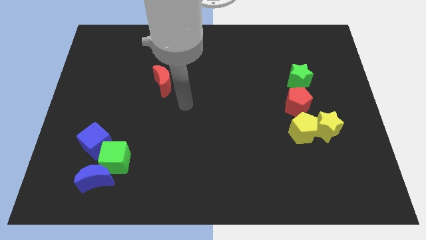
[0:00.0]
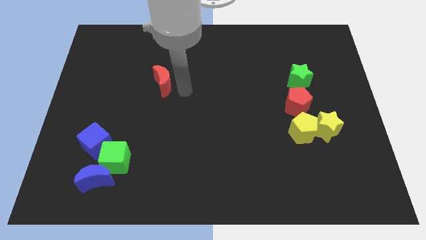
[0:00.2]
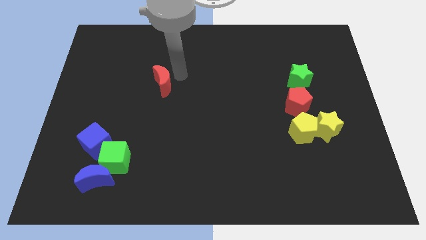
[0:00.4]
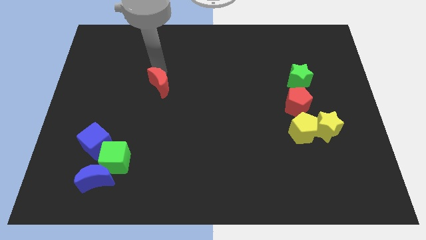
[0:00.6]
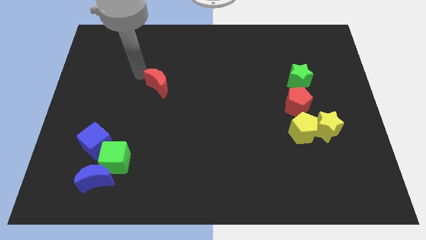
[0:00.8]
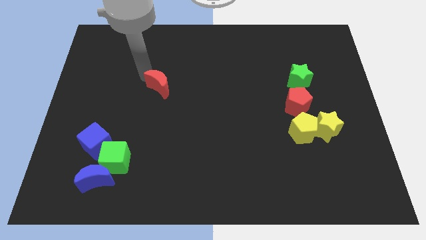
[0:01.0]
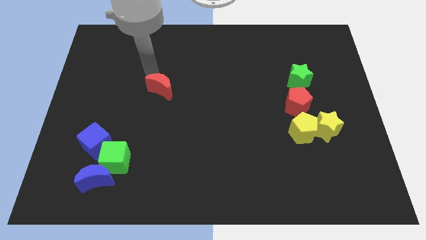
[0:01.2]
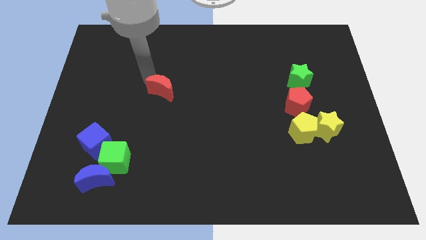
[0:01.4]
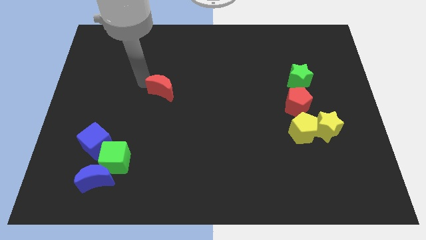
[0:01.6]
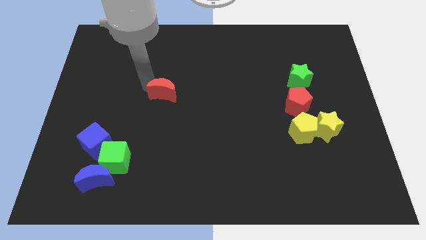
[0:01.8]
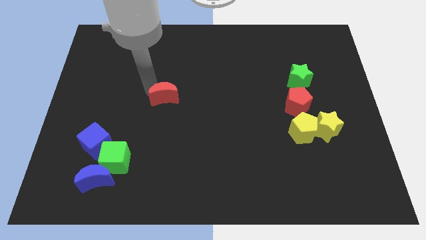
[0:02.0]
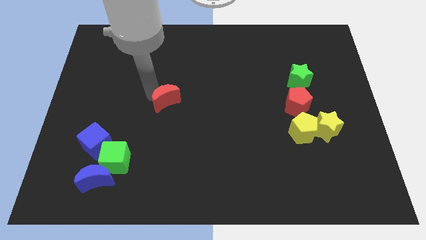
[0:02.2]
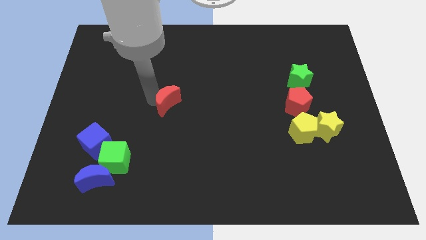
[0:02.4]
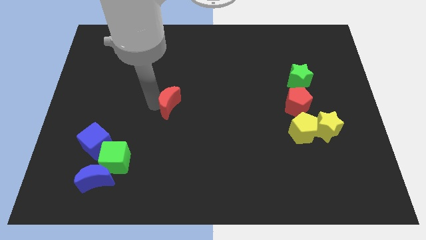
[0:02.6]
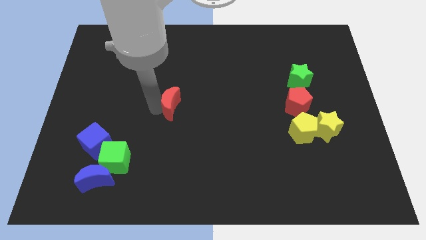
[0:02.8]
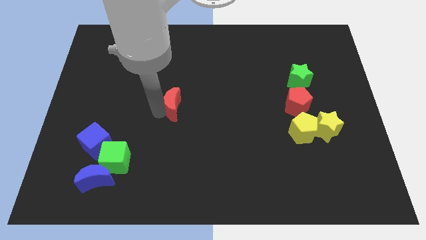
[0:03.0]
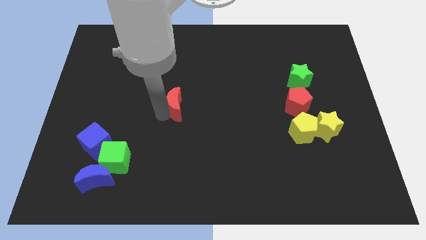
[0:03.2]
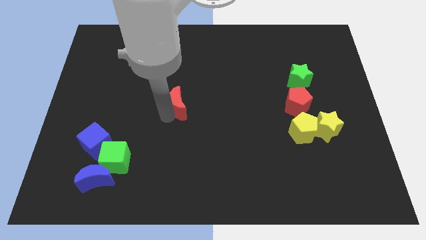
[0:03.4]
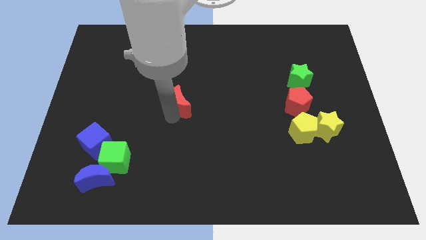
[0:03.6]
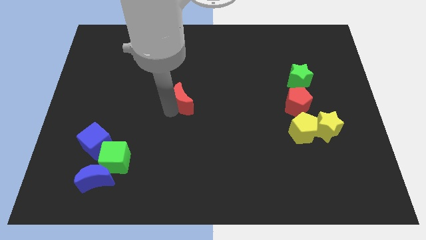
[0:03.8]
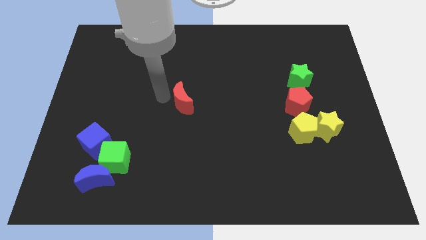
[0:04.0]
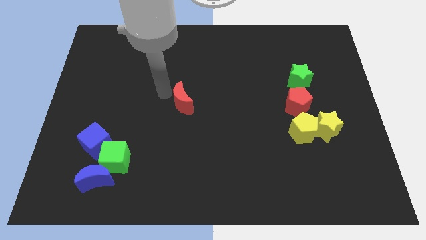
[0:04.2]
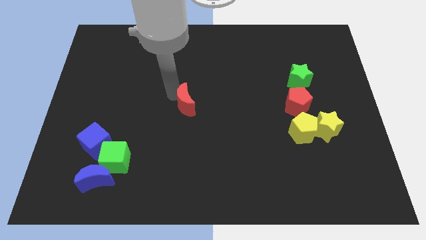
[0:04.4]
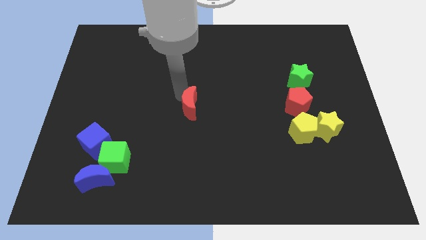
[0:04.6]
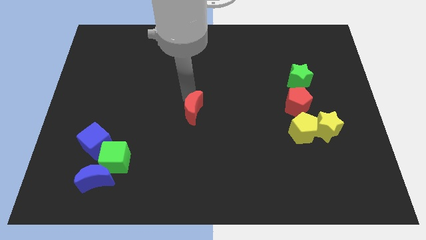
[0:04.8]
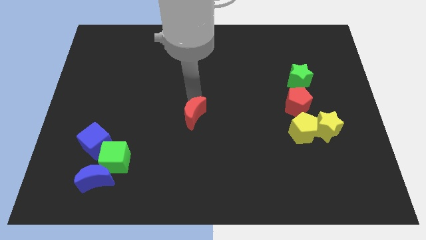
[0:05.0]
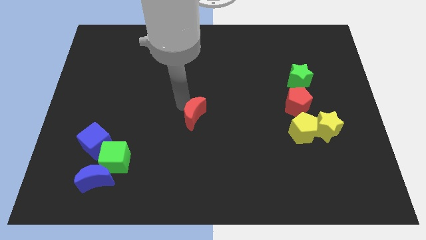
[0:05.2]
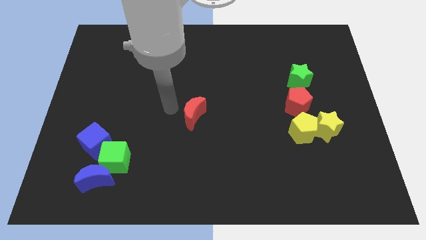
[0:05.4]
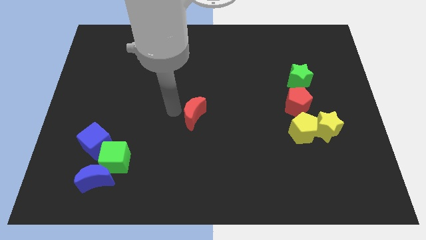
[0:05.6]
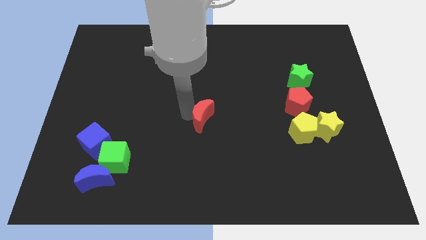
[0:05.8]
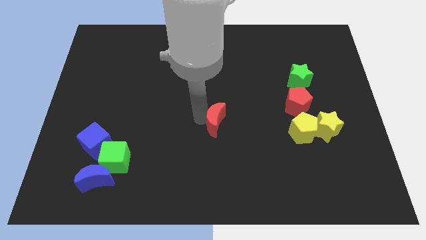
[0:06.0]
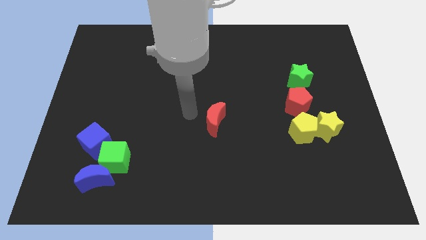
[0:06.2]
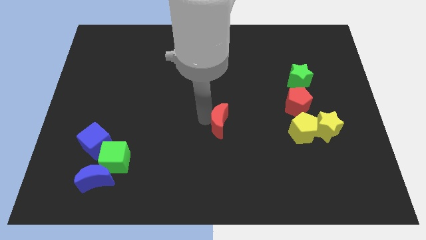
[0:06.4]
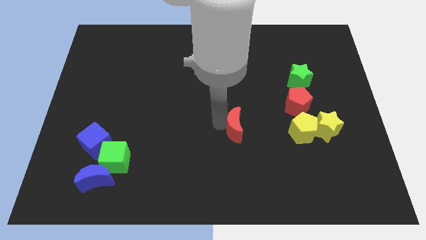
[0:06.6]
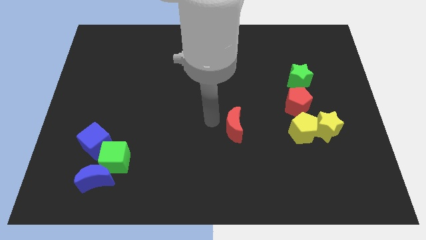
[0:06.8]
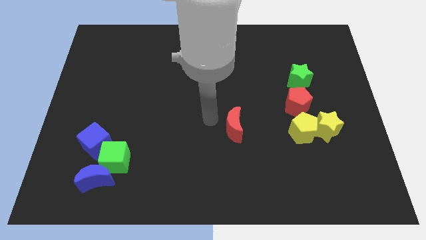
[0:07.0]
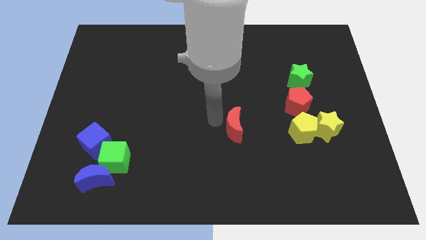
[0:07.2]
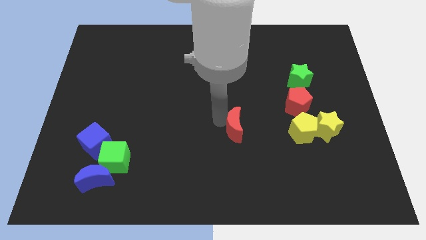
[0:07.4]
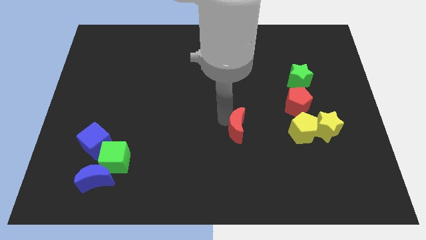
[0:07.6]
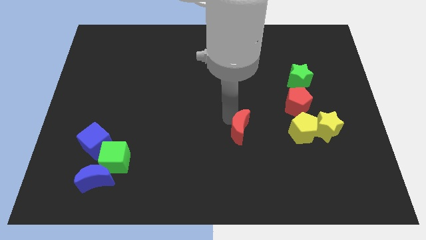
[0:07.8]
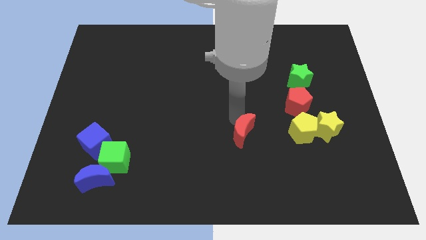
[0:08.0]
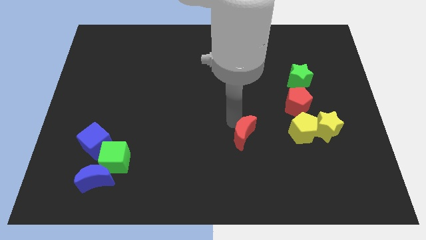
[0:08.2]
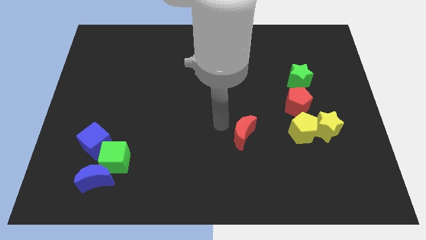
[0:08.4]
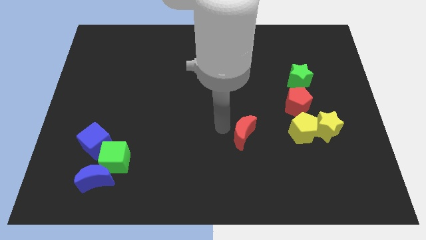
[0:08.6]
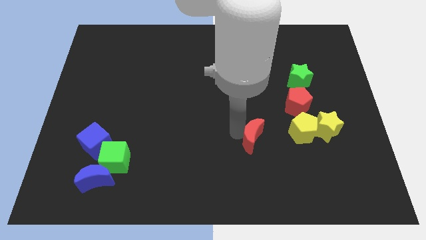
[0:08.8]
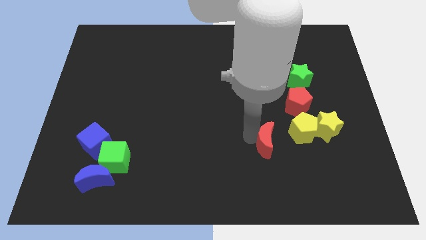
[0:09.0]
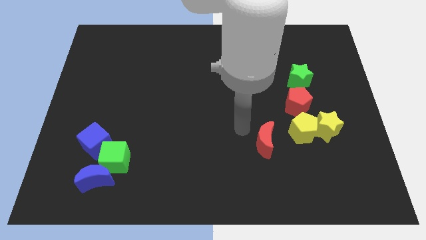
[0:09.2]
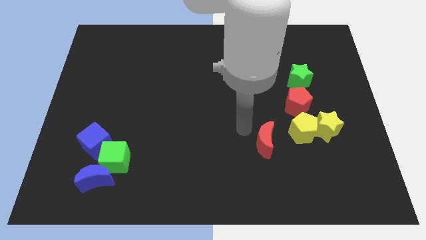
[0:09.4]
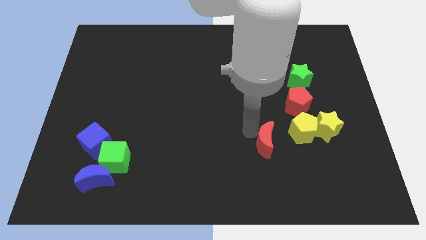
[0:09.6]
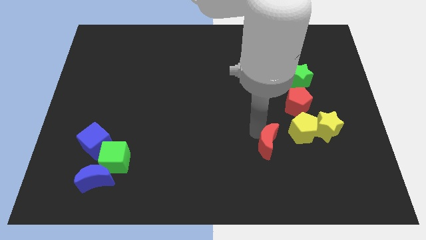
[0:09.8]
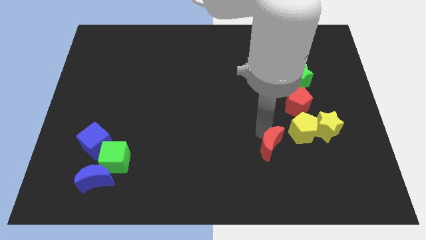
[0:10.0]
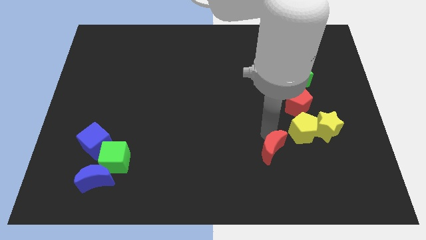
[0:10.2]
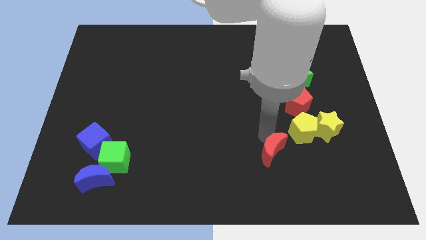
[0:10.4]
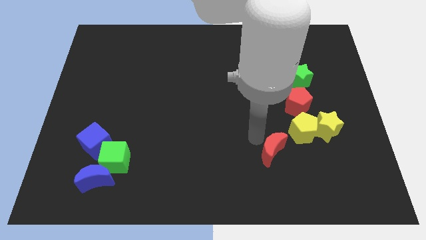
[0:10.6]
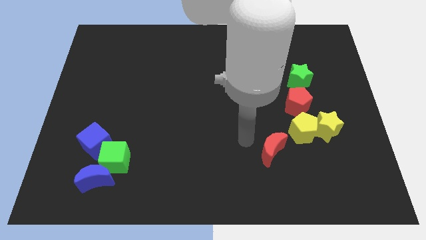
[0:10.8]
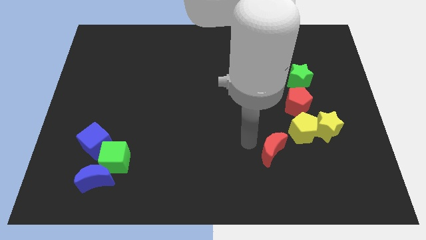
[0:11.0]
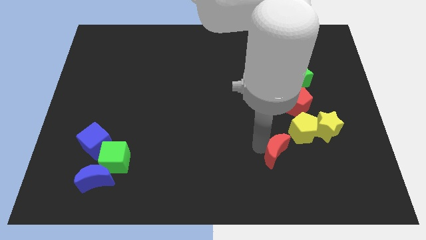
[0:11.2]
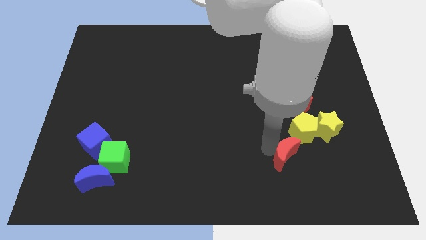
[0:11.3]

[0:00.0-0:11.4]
slide the red moon to the bottom of the yellow pentagon

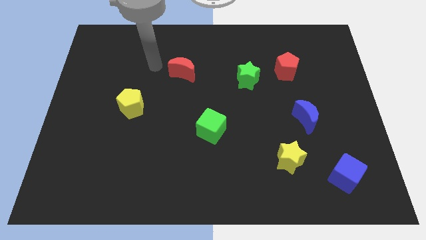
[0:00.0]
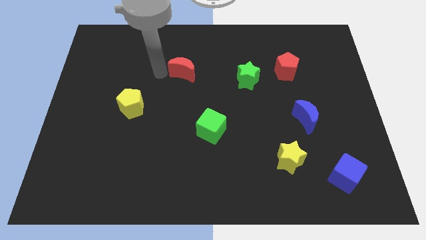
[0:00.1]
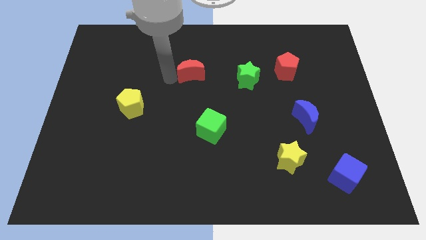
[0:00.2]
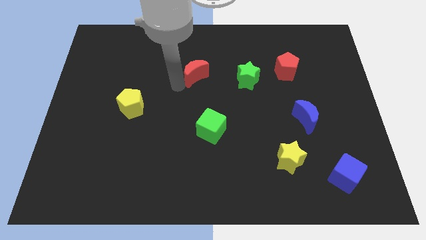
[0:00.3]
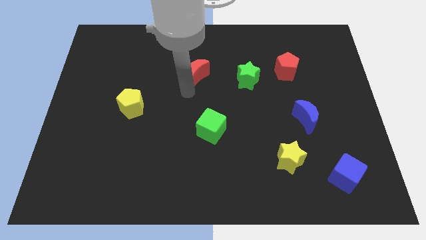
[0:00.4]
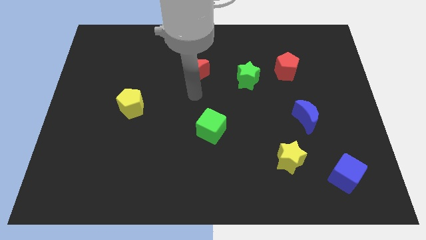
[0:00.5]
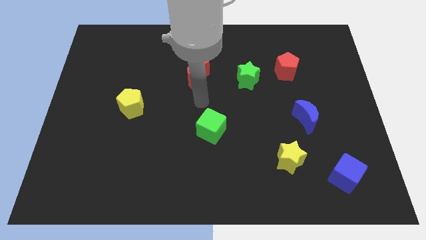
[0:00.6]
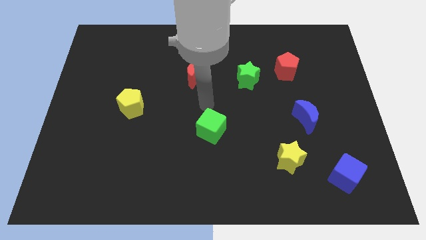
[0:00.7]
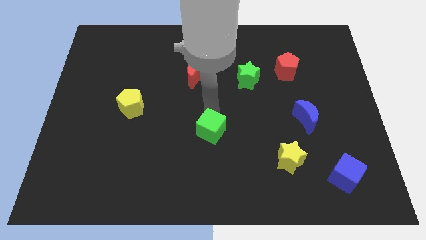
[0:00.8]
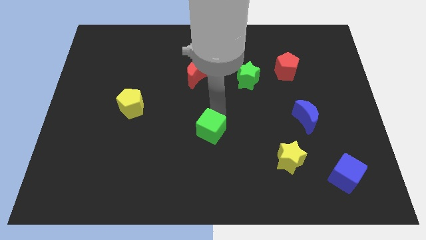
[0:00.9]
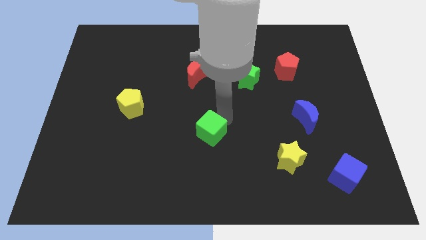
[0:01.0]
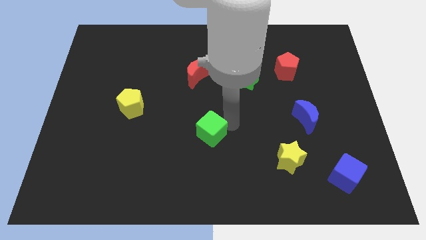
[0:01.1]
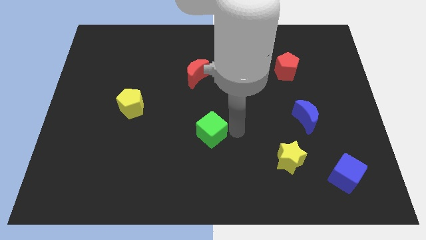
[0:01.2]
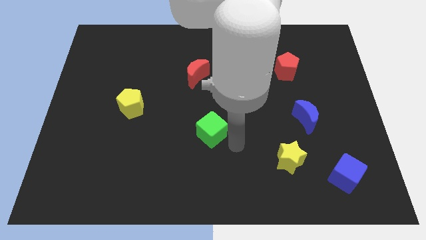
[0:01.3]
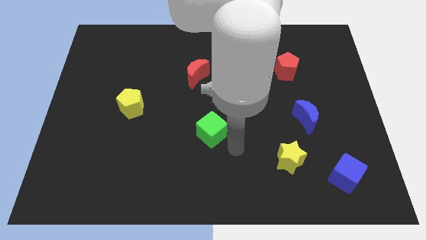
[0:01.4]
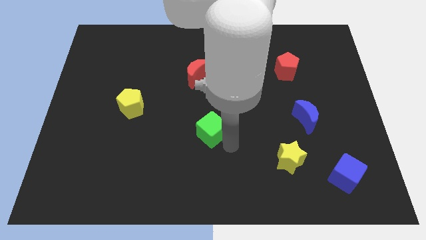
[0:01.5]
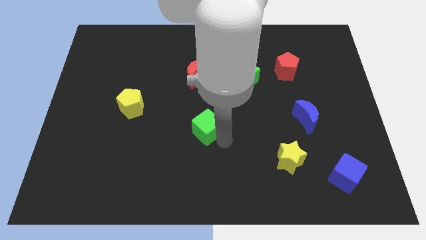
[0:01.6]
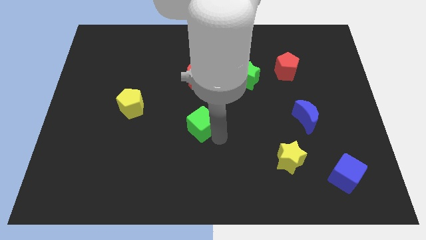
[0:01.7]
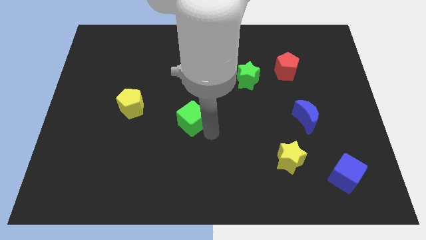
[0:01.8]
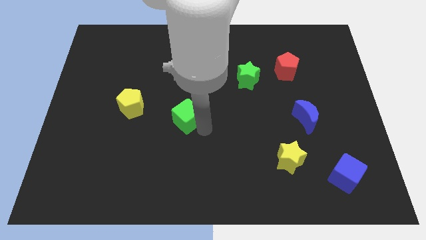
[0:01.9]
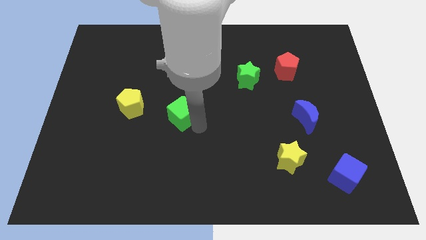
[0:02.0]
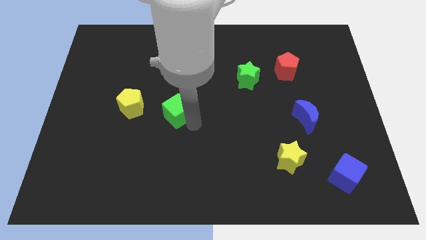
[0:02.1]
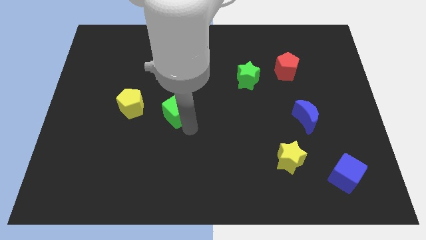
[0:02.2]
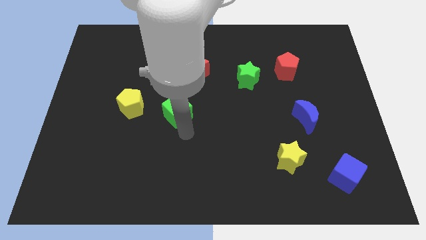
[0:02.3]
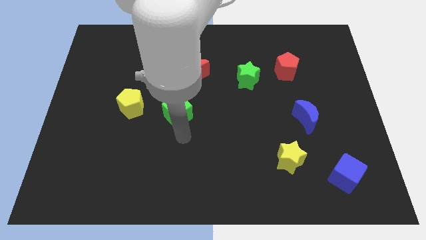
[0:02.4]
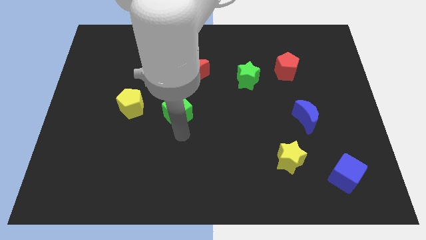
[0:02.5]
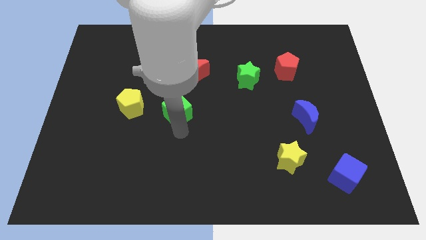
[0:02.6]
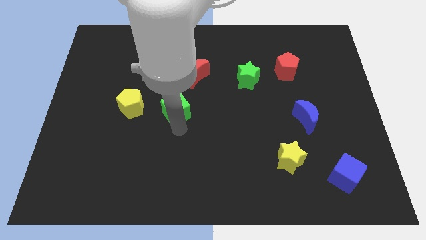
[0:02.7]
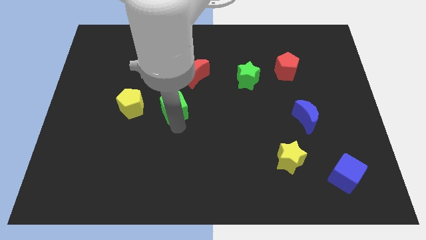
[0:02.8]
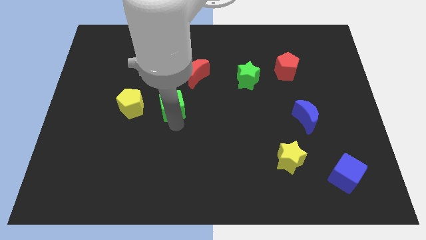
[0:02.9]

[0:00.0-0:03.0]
slide the green cube diagonally down and to the left of the red moon
